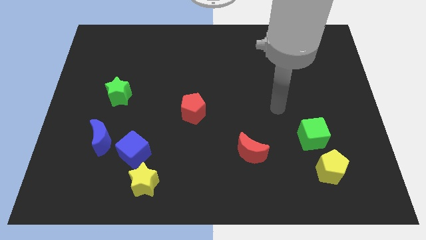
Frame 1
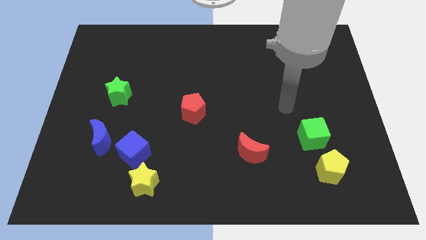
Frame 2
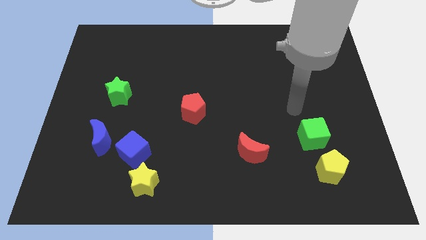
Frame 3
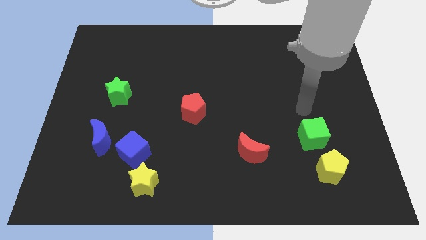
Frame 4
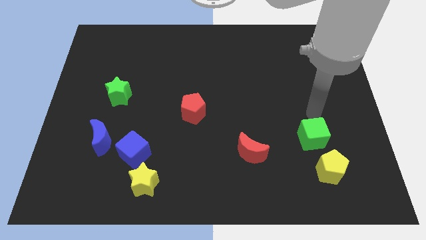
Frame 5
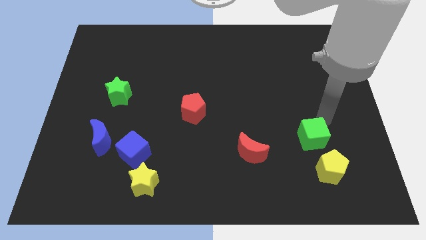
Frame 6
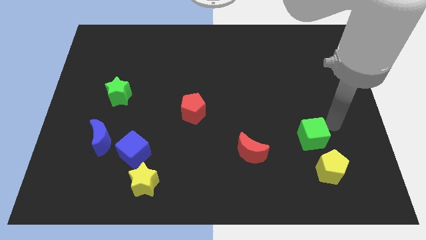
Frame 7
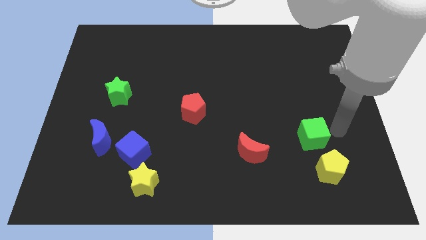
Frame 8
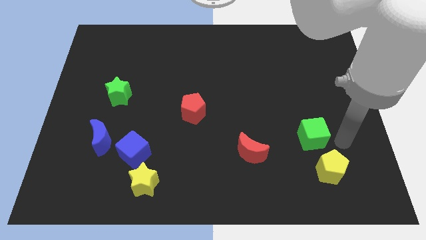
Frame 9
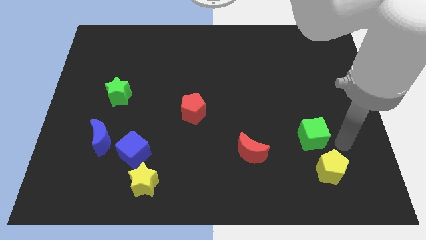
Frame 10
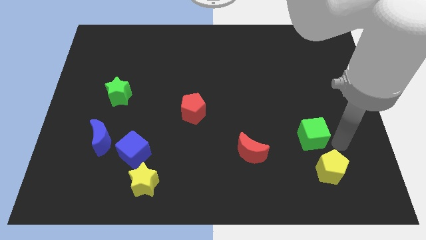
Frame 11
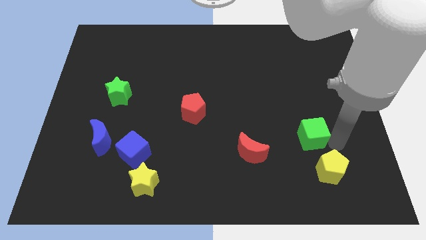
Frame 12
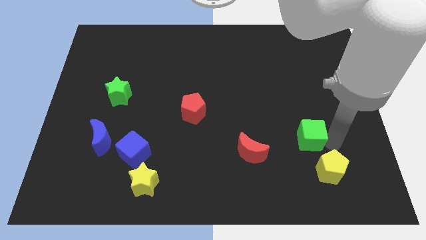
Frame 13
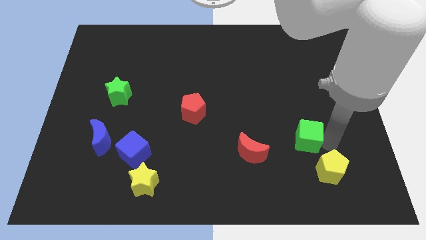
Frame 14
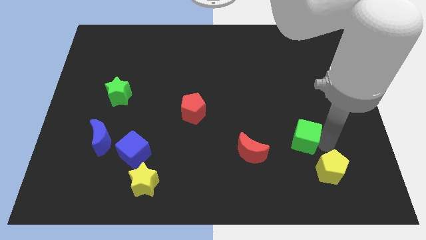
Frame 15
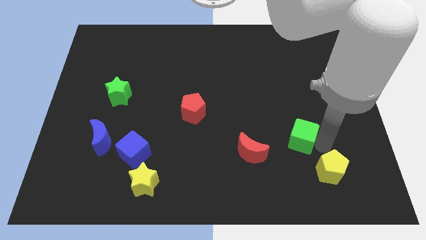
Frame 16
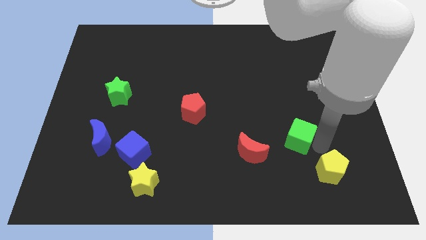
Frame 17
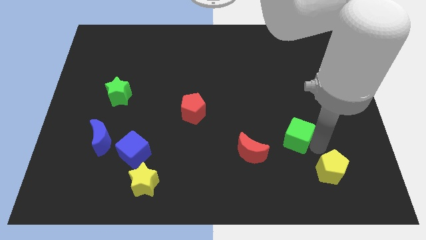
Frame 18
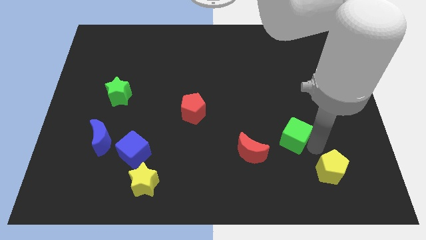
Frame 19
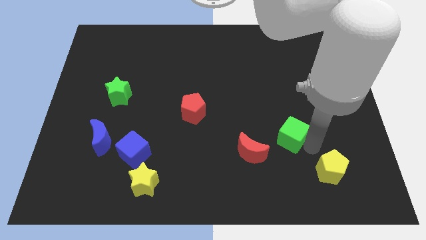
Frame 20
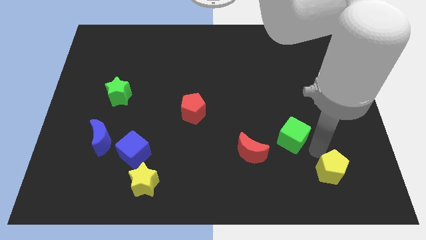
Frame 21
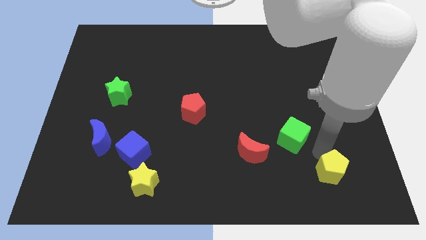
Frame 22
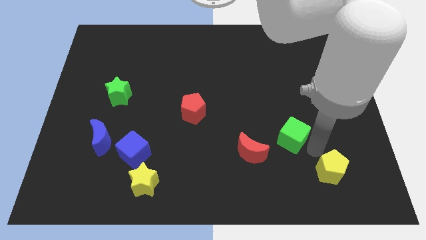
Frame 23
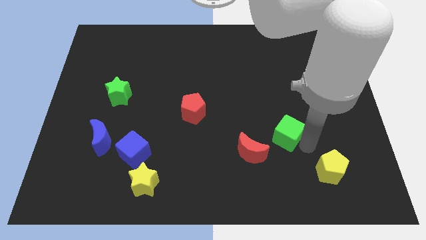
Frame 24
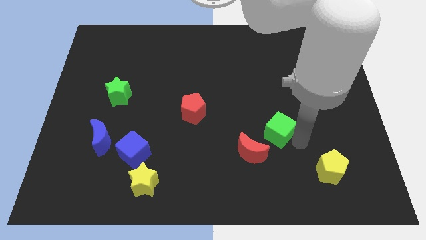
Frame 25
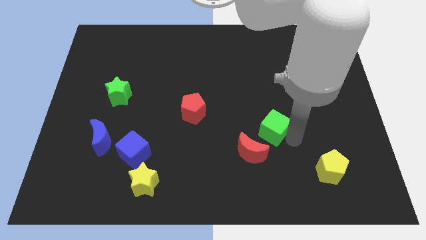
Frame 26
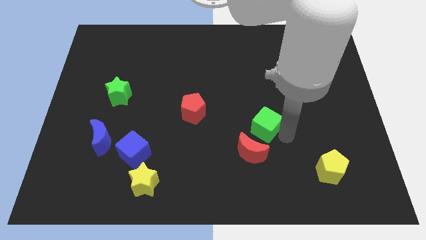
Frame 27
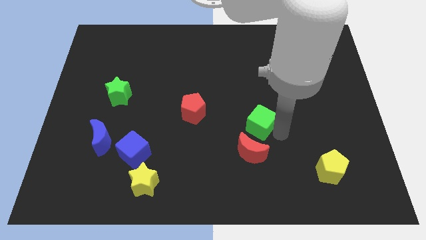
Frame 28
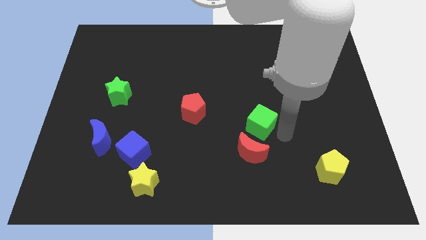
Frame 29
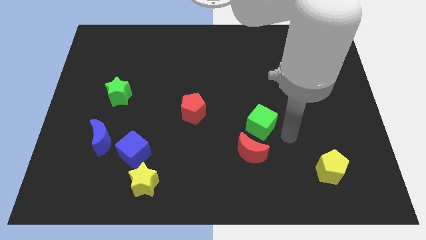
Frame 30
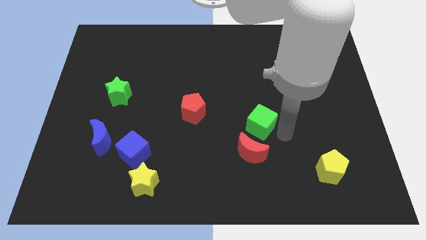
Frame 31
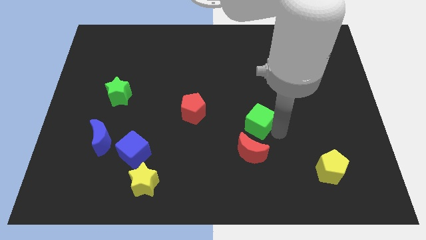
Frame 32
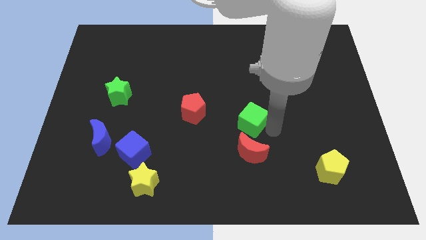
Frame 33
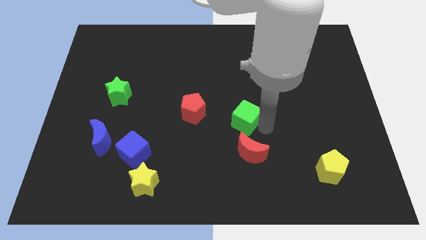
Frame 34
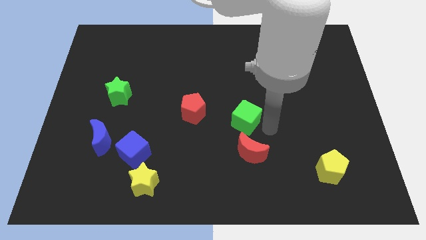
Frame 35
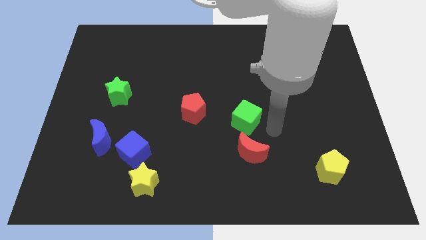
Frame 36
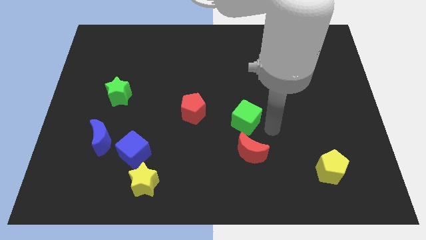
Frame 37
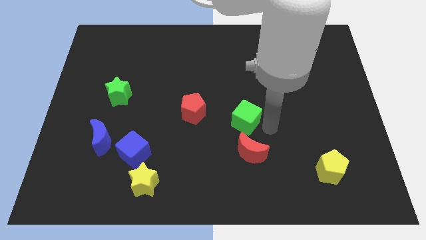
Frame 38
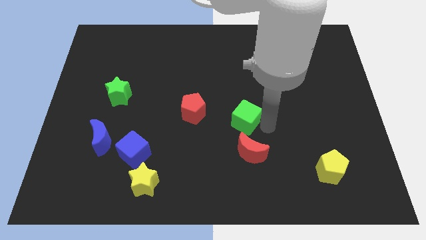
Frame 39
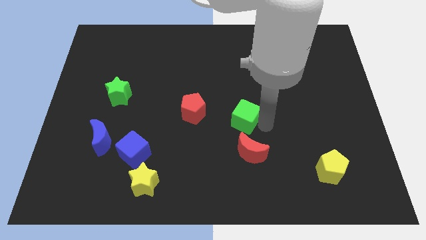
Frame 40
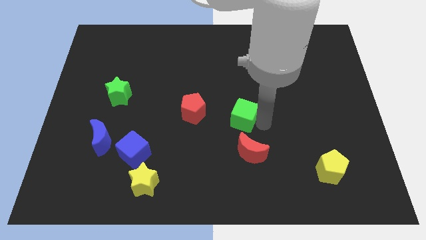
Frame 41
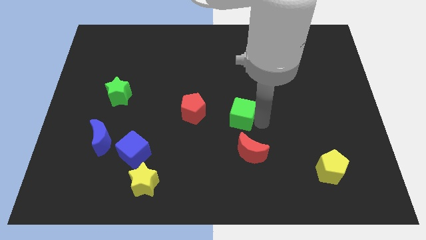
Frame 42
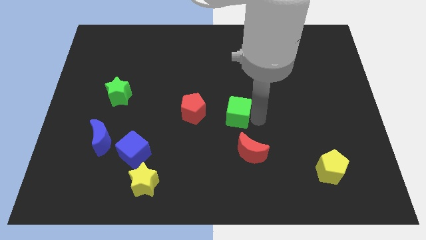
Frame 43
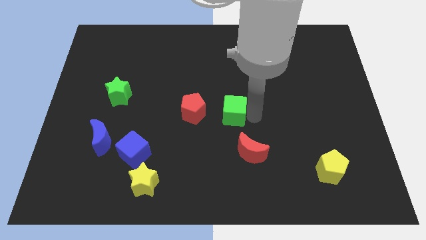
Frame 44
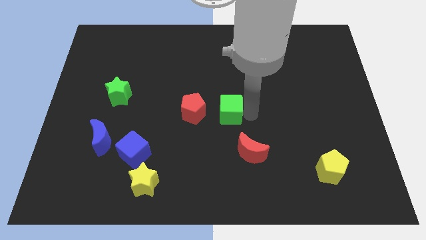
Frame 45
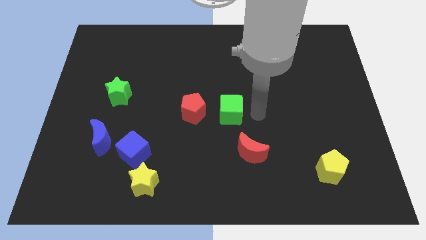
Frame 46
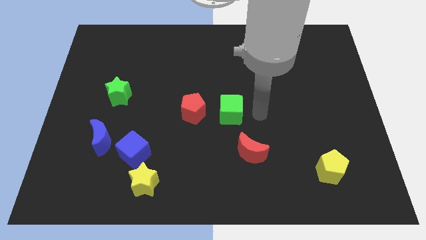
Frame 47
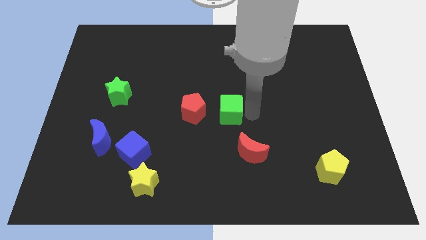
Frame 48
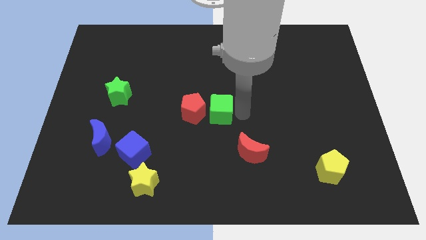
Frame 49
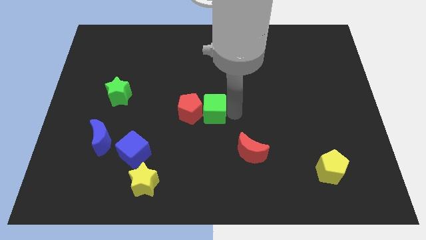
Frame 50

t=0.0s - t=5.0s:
slide the green cube next to the red pentagon

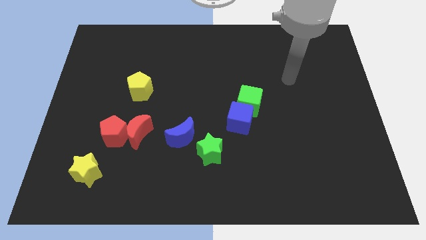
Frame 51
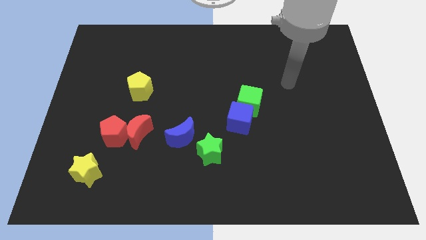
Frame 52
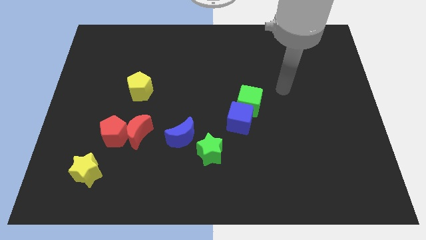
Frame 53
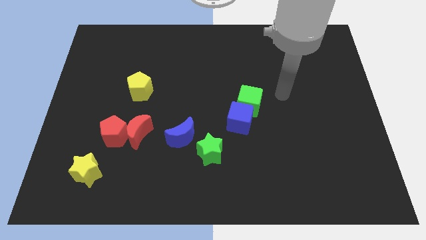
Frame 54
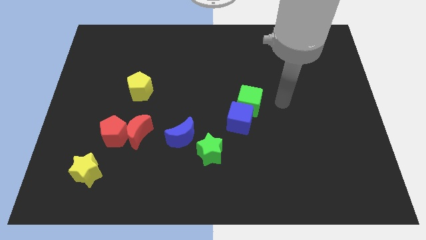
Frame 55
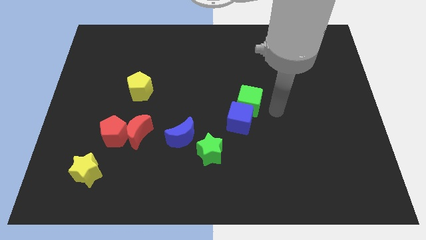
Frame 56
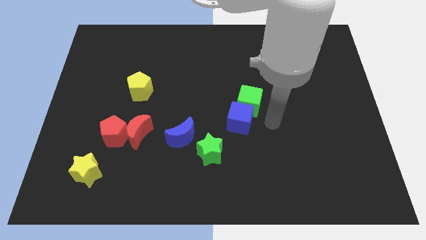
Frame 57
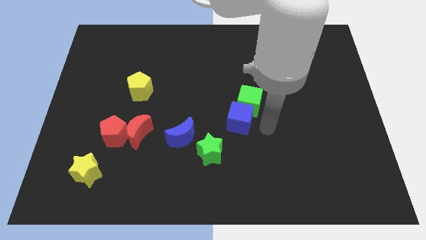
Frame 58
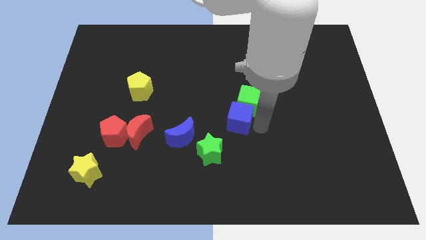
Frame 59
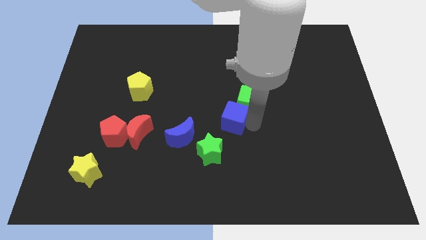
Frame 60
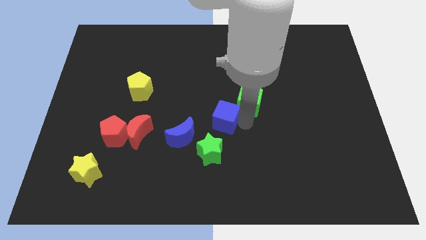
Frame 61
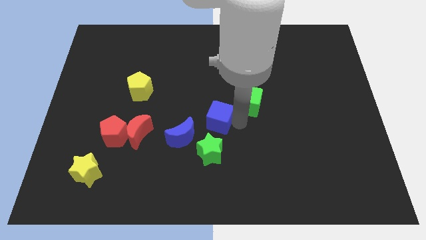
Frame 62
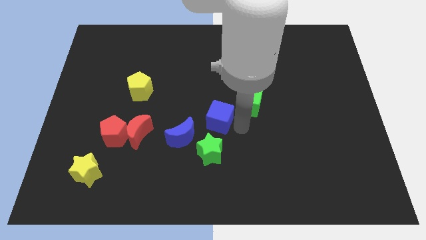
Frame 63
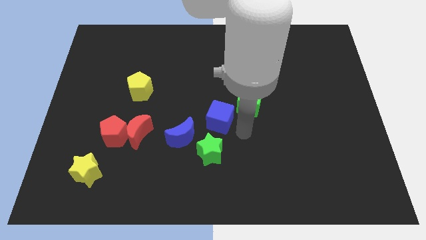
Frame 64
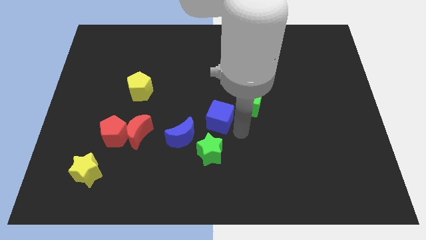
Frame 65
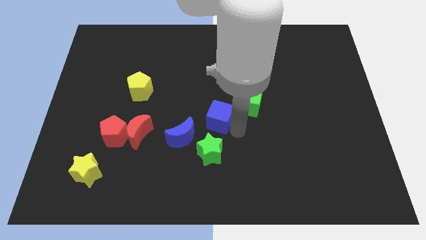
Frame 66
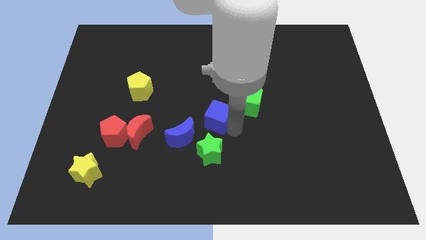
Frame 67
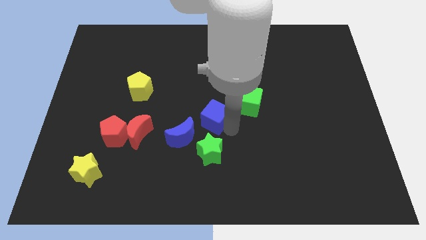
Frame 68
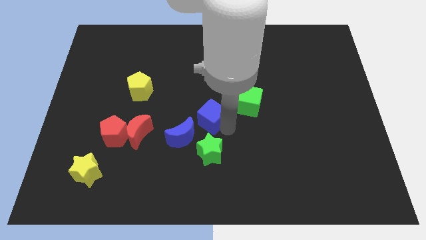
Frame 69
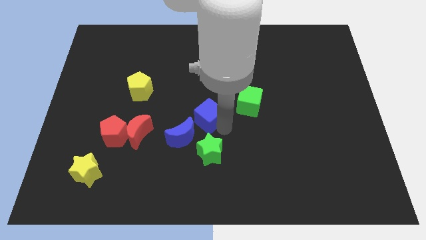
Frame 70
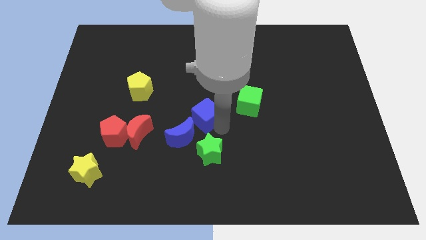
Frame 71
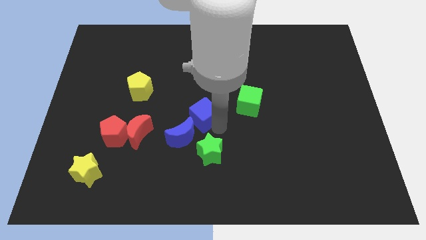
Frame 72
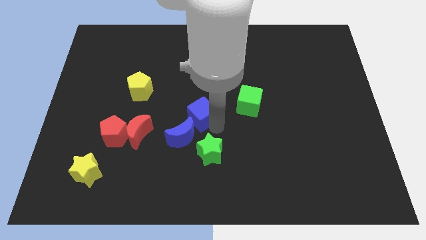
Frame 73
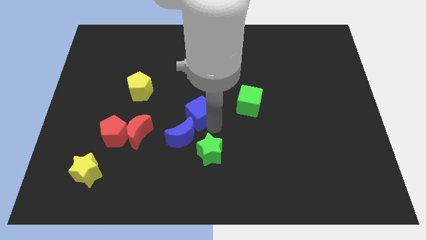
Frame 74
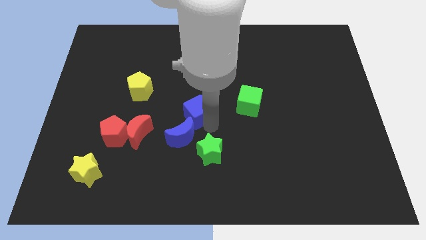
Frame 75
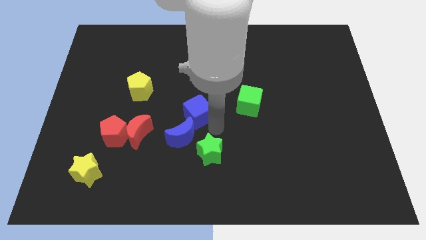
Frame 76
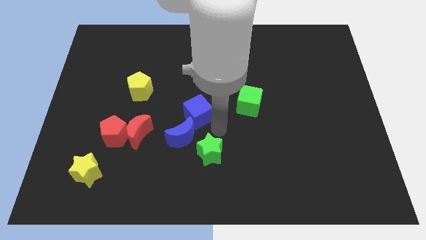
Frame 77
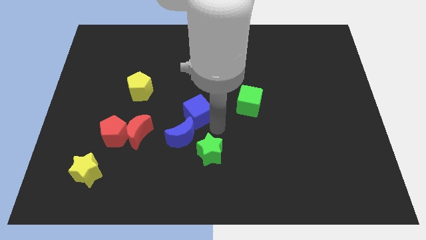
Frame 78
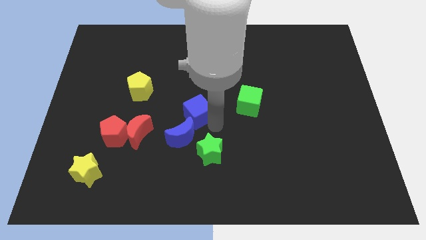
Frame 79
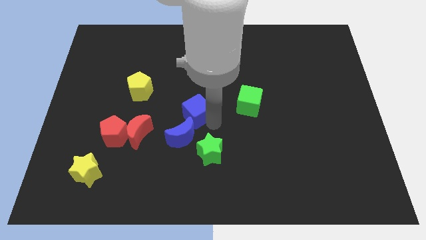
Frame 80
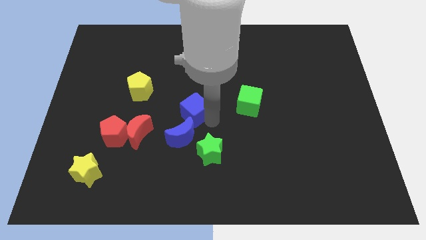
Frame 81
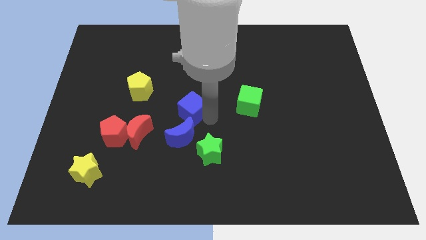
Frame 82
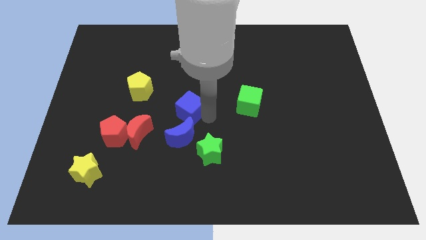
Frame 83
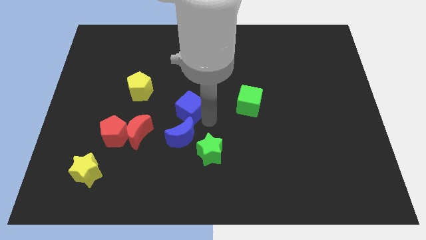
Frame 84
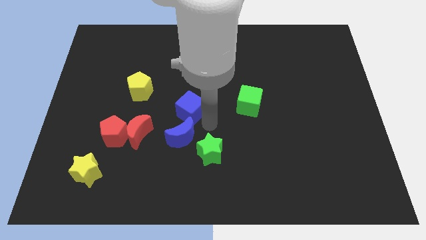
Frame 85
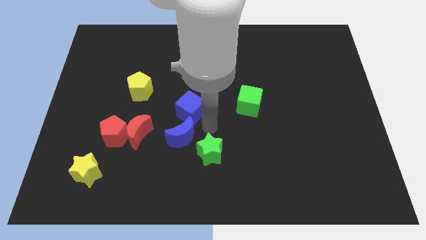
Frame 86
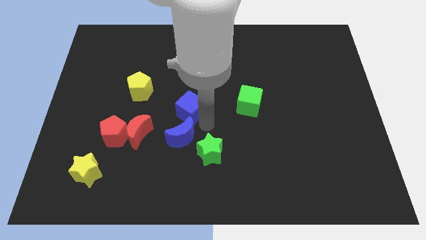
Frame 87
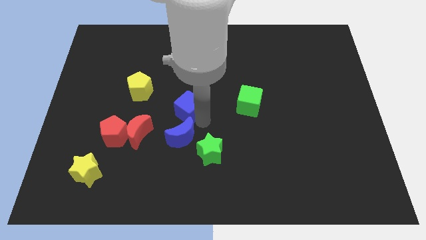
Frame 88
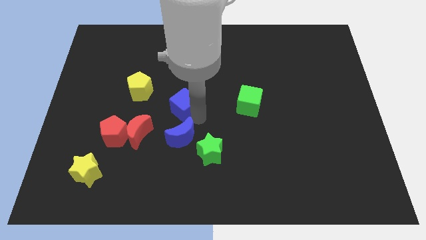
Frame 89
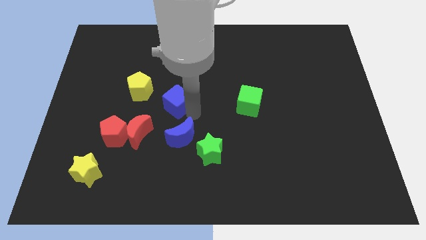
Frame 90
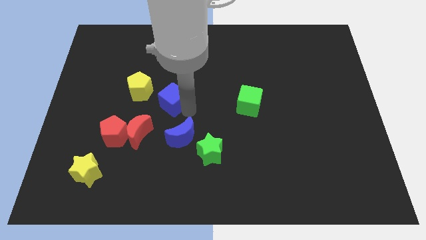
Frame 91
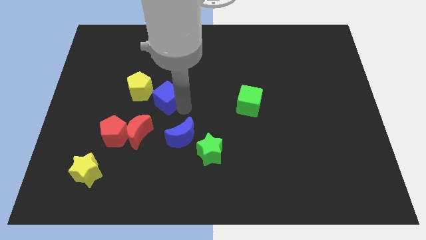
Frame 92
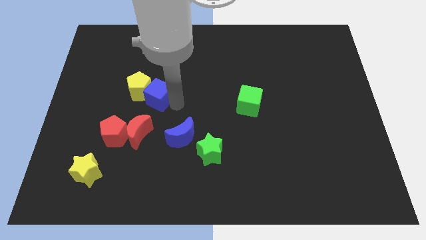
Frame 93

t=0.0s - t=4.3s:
put the blue cube close to the yellow pentagon
